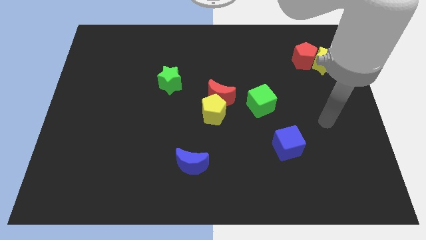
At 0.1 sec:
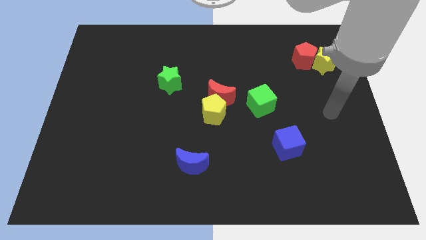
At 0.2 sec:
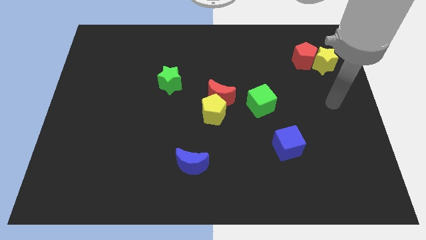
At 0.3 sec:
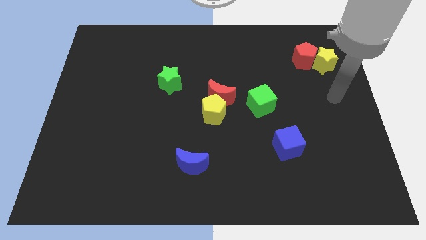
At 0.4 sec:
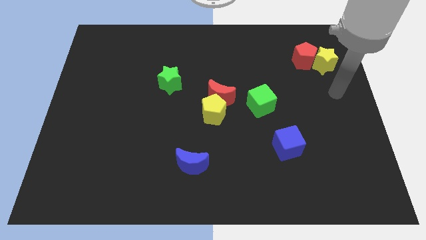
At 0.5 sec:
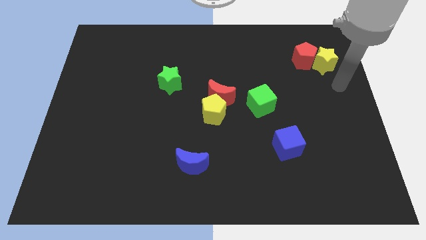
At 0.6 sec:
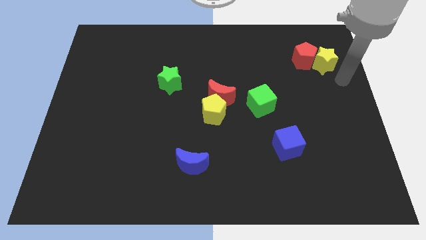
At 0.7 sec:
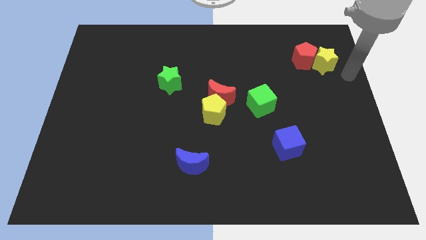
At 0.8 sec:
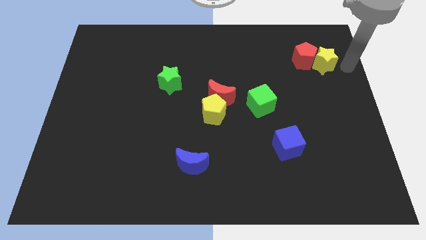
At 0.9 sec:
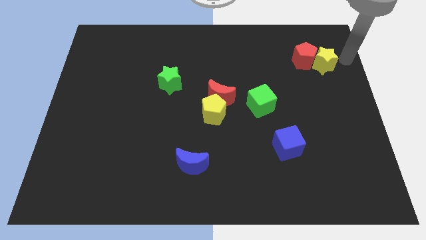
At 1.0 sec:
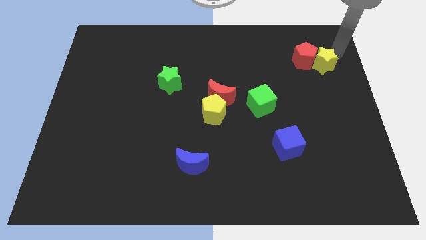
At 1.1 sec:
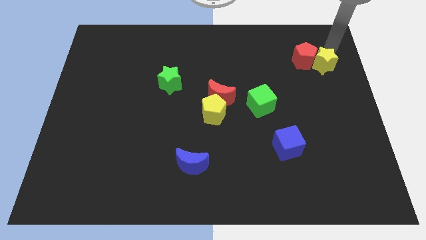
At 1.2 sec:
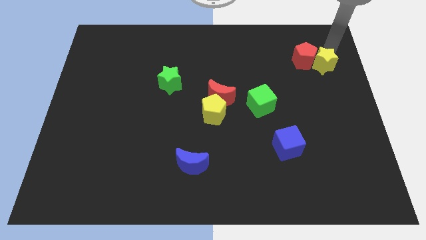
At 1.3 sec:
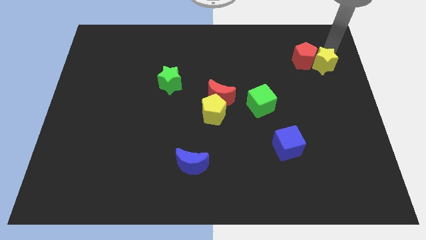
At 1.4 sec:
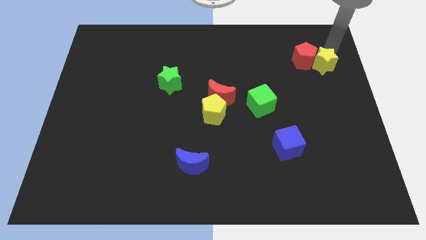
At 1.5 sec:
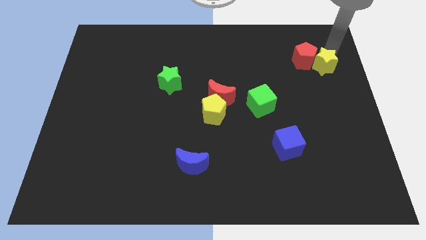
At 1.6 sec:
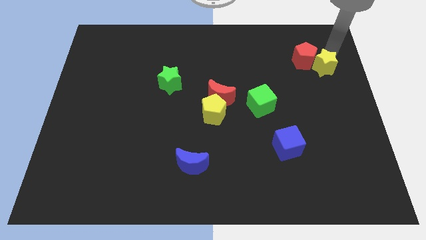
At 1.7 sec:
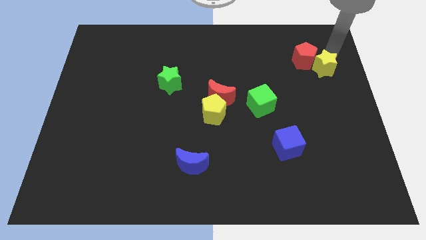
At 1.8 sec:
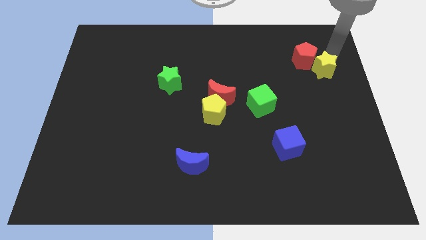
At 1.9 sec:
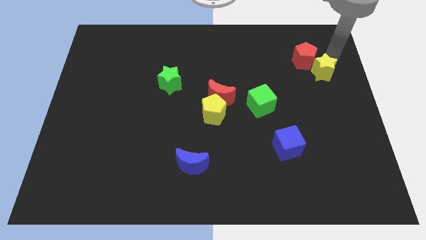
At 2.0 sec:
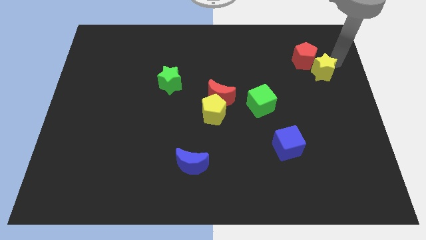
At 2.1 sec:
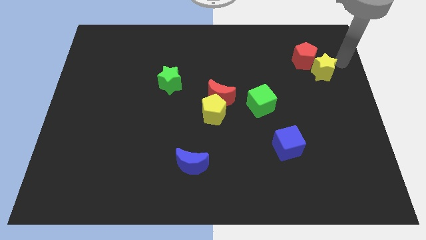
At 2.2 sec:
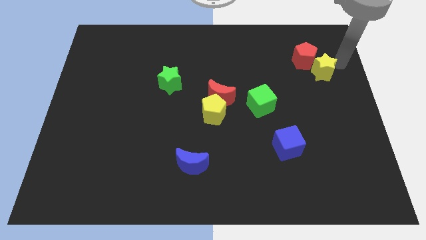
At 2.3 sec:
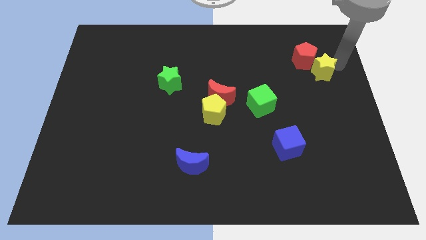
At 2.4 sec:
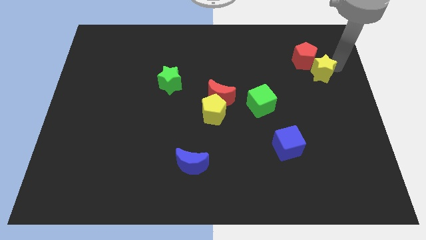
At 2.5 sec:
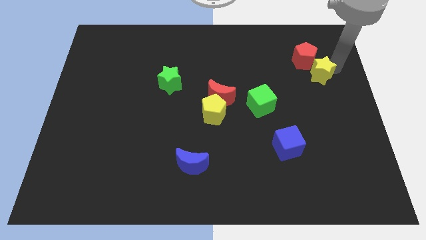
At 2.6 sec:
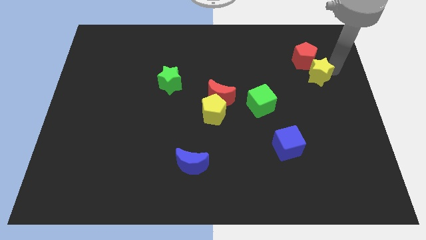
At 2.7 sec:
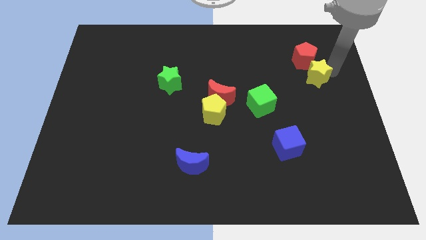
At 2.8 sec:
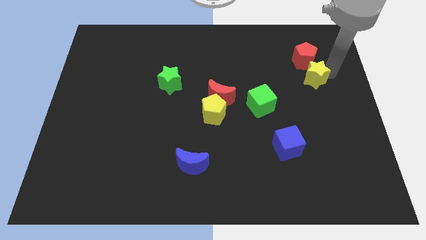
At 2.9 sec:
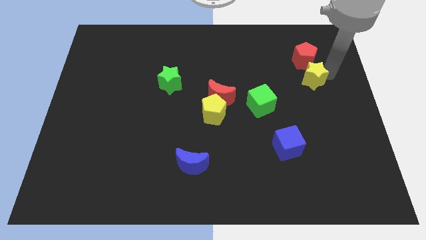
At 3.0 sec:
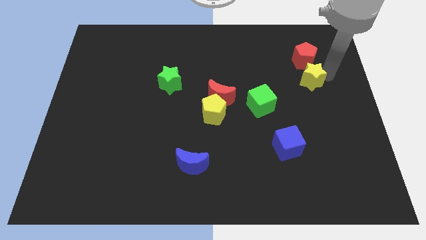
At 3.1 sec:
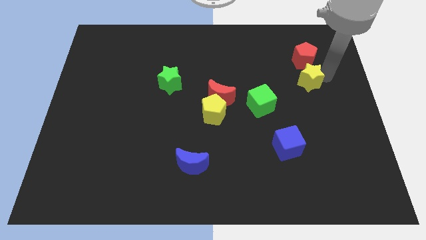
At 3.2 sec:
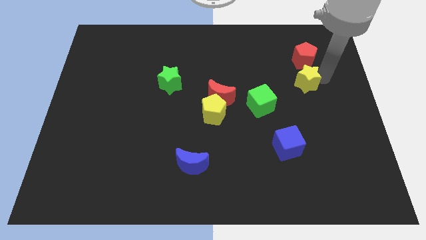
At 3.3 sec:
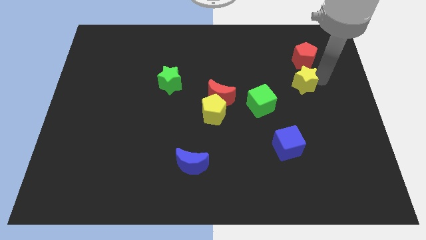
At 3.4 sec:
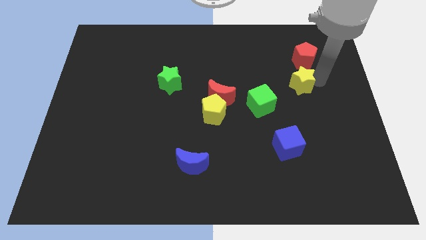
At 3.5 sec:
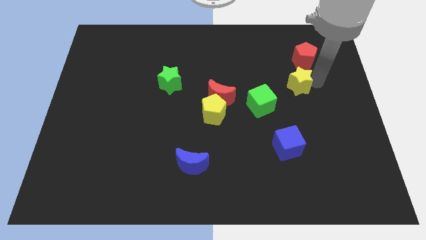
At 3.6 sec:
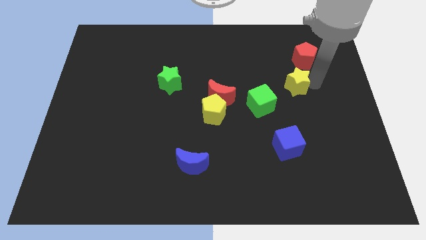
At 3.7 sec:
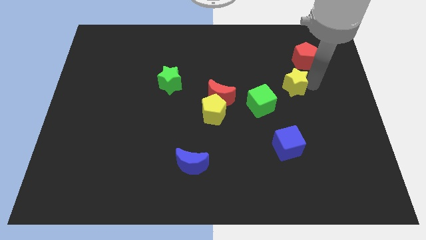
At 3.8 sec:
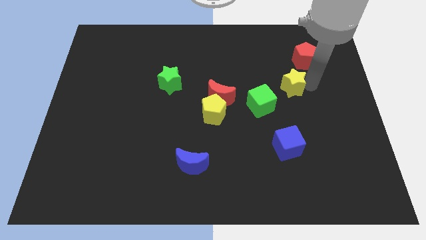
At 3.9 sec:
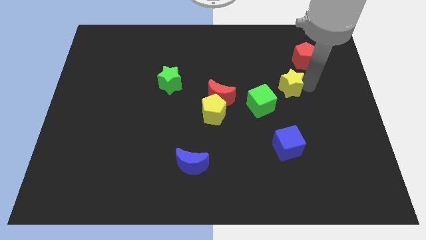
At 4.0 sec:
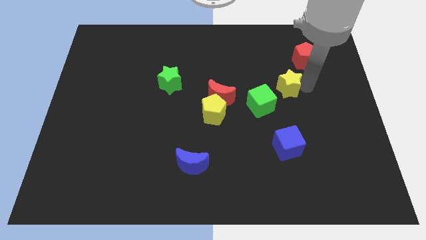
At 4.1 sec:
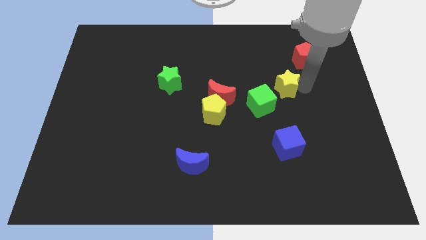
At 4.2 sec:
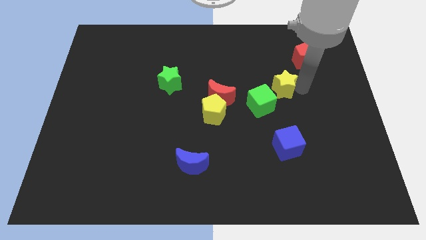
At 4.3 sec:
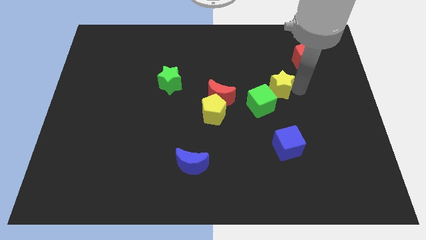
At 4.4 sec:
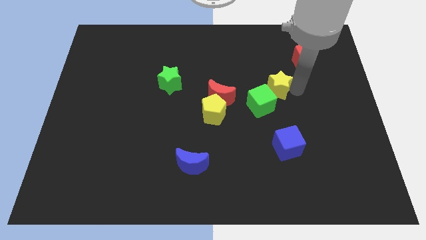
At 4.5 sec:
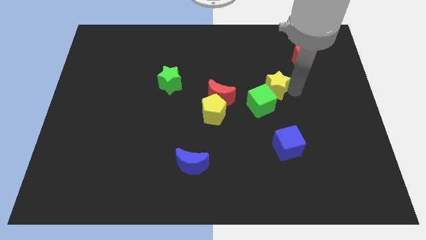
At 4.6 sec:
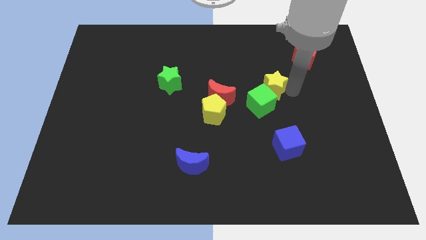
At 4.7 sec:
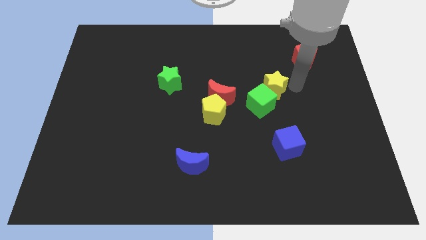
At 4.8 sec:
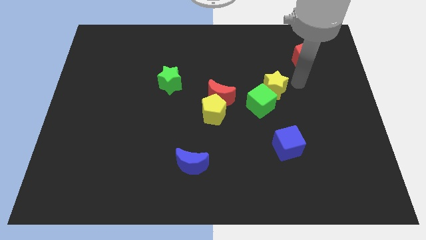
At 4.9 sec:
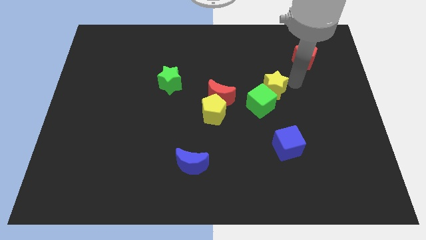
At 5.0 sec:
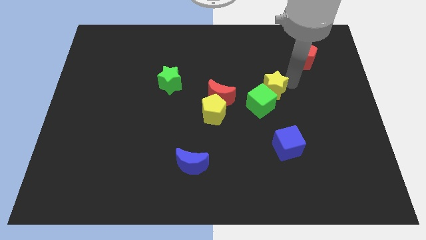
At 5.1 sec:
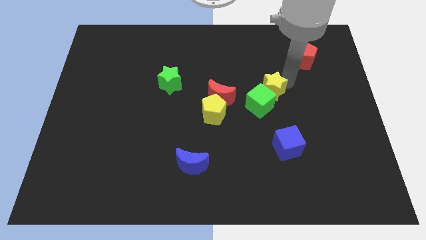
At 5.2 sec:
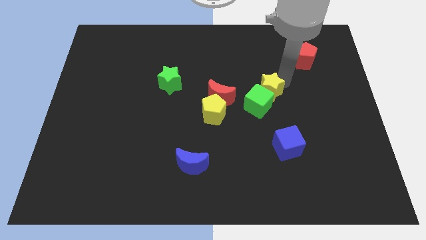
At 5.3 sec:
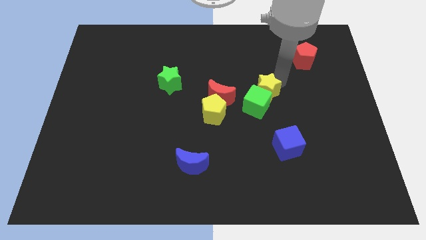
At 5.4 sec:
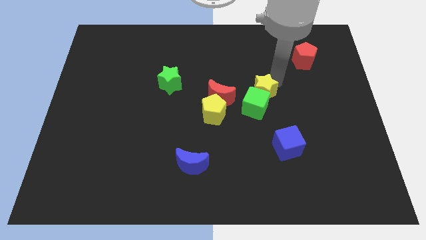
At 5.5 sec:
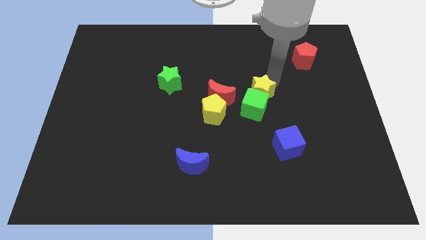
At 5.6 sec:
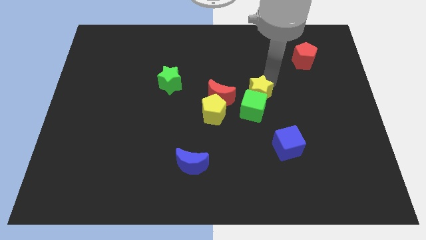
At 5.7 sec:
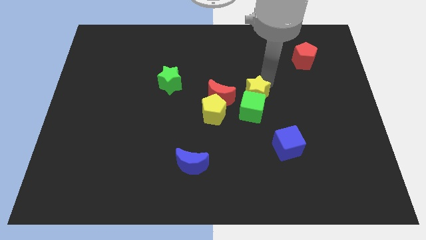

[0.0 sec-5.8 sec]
move the yellow star to the top right side of the yellow pentagon

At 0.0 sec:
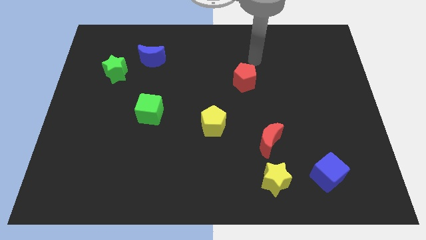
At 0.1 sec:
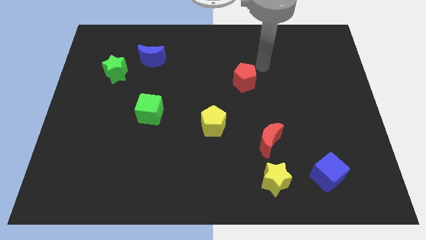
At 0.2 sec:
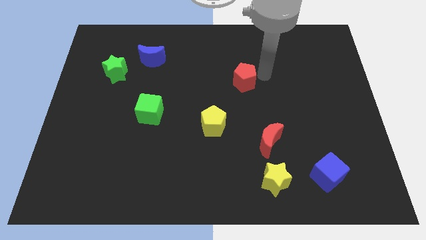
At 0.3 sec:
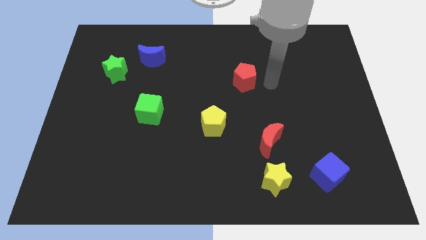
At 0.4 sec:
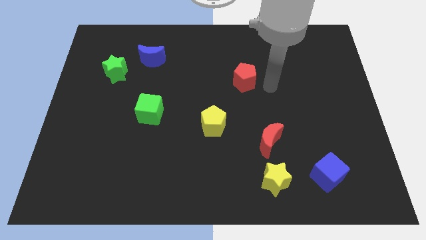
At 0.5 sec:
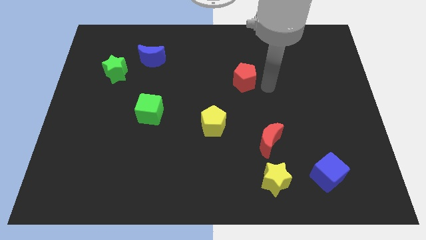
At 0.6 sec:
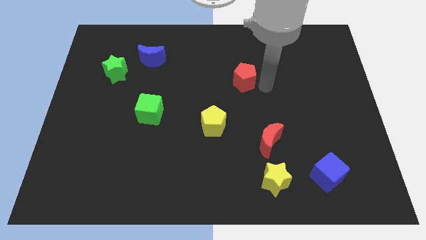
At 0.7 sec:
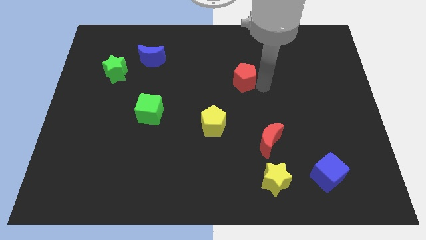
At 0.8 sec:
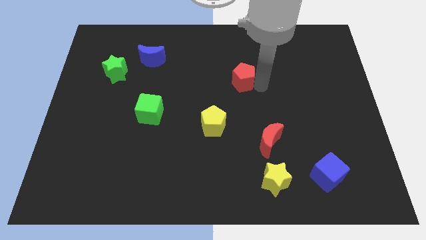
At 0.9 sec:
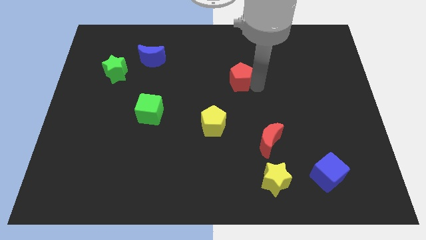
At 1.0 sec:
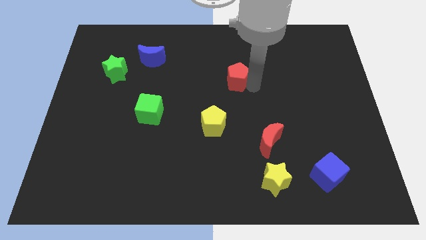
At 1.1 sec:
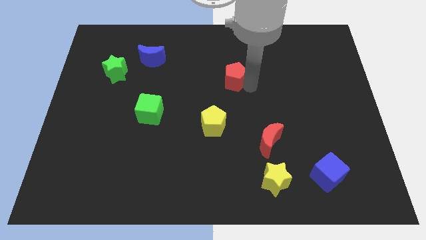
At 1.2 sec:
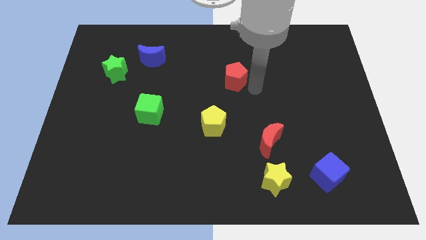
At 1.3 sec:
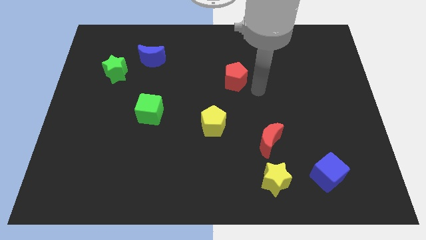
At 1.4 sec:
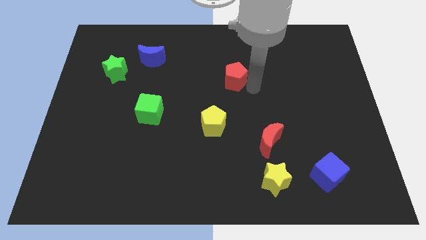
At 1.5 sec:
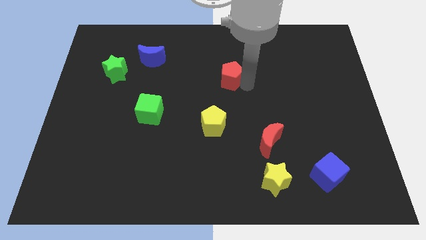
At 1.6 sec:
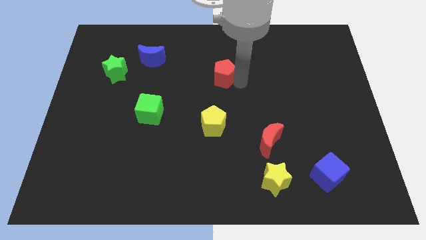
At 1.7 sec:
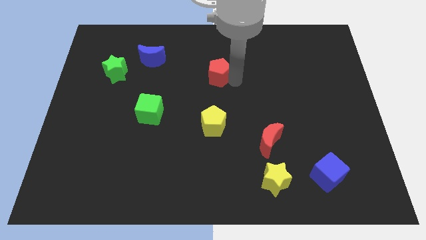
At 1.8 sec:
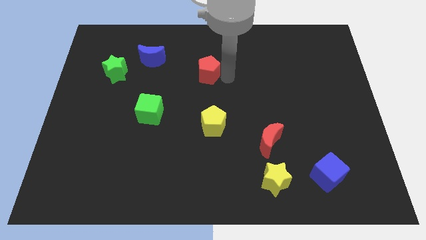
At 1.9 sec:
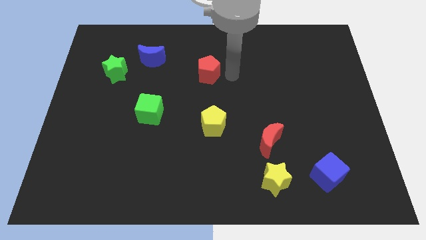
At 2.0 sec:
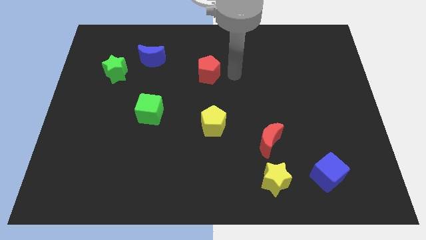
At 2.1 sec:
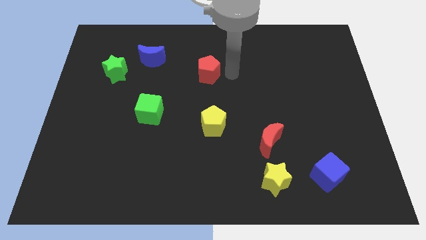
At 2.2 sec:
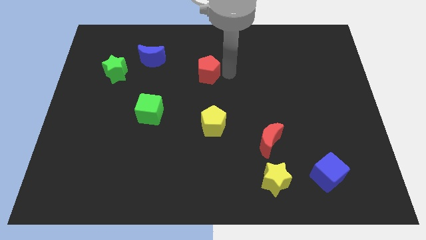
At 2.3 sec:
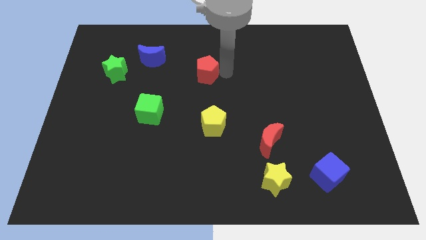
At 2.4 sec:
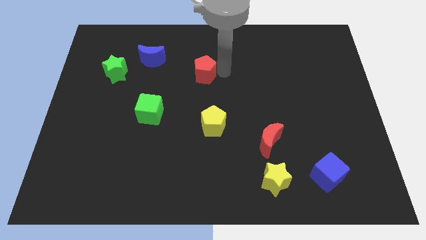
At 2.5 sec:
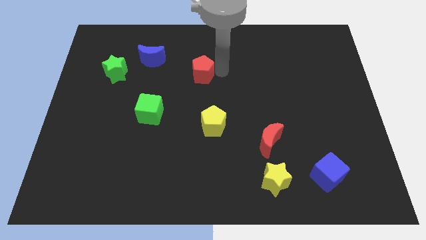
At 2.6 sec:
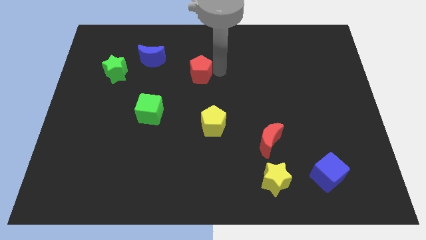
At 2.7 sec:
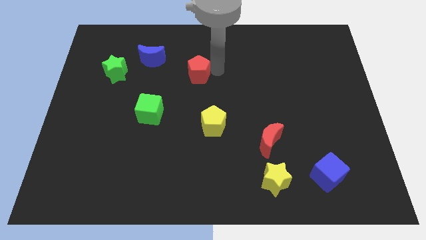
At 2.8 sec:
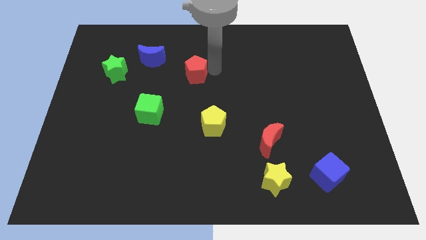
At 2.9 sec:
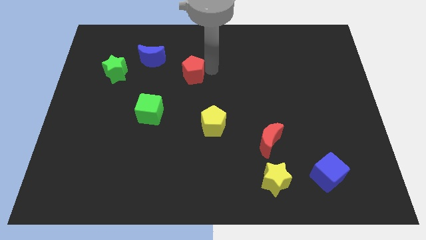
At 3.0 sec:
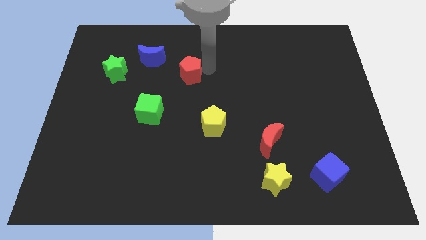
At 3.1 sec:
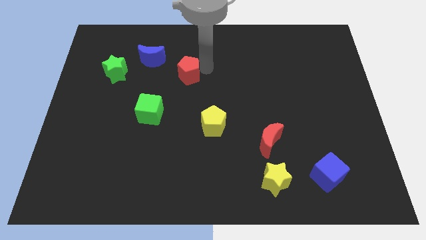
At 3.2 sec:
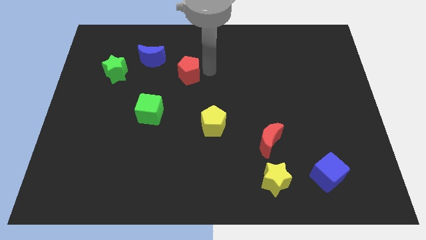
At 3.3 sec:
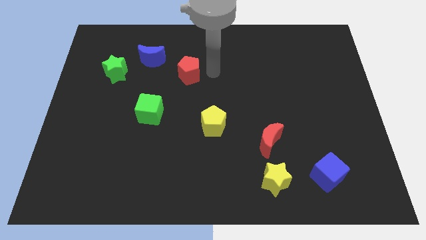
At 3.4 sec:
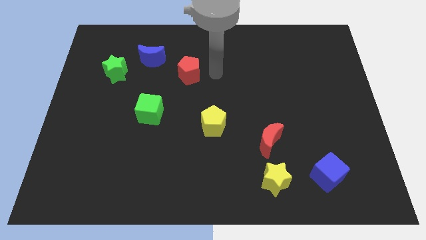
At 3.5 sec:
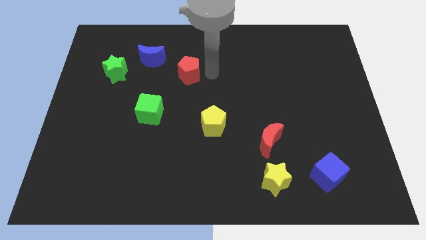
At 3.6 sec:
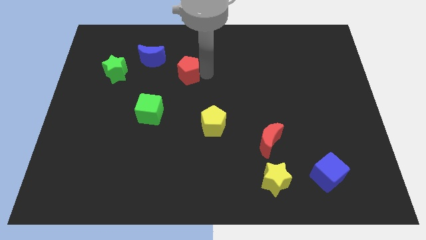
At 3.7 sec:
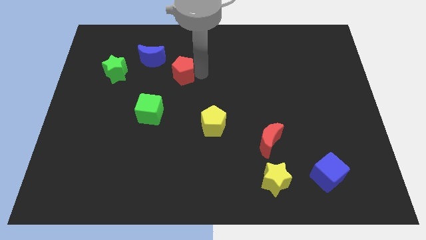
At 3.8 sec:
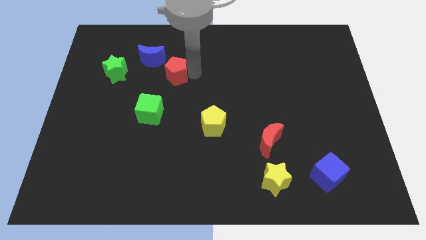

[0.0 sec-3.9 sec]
push the red pentagon to the right side of the green star
